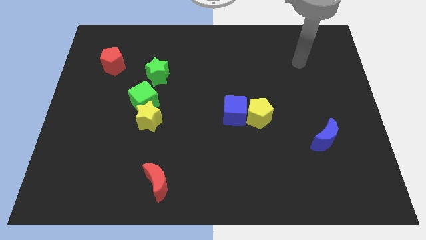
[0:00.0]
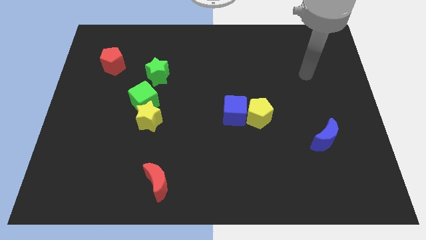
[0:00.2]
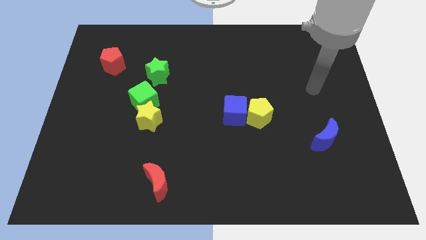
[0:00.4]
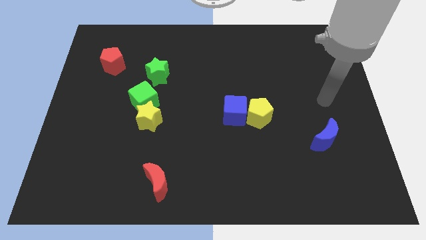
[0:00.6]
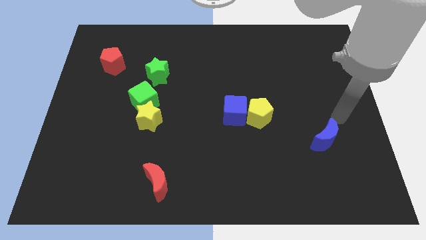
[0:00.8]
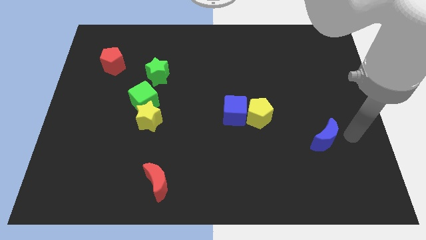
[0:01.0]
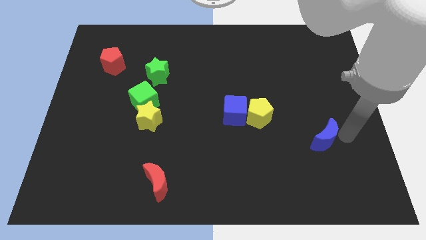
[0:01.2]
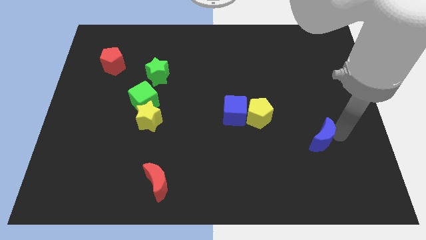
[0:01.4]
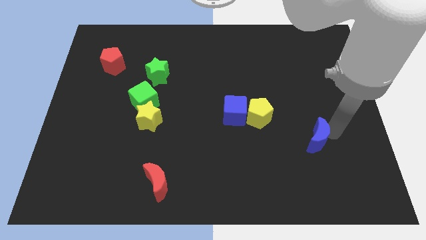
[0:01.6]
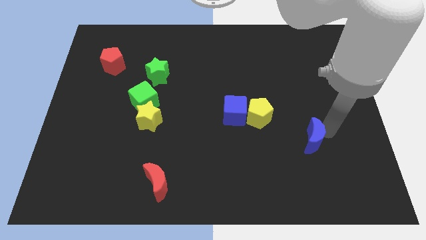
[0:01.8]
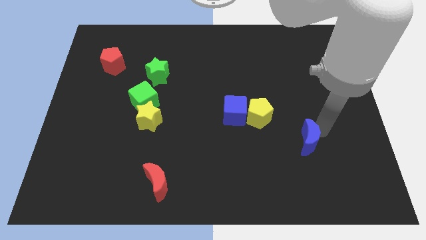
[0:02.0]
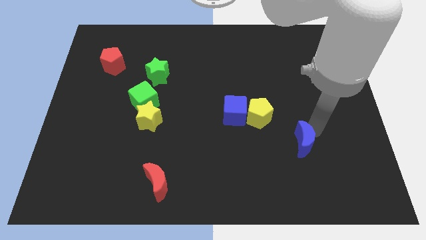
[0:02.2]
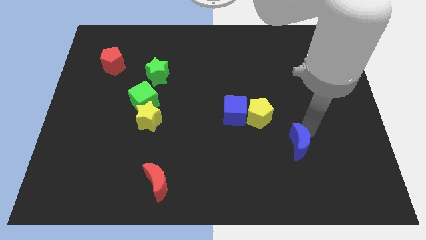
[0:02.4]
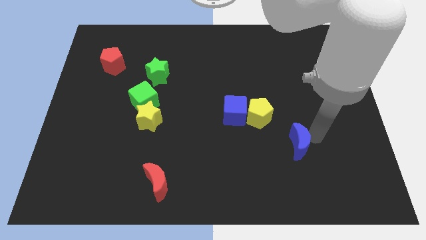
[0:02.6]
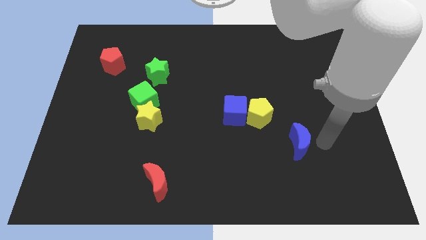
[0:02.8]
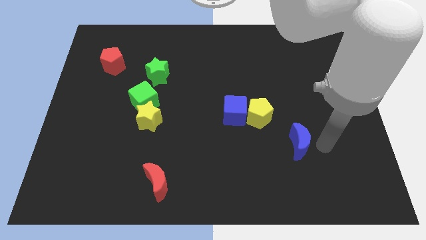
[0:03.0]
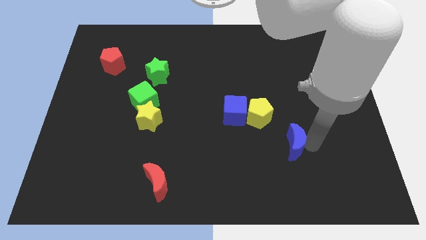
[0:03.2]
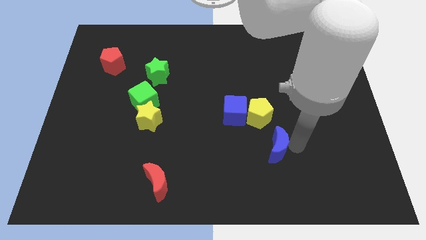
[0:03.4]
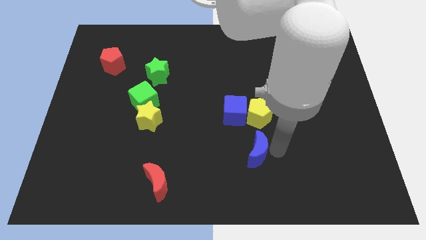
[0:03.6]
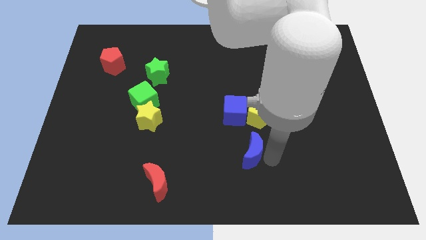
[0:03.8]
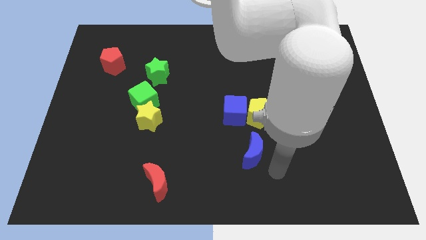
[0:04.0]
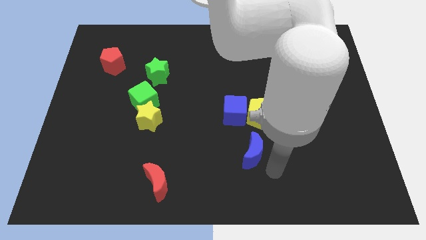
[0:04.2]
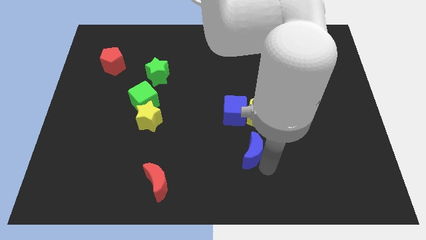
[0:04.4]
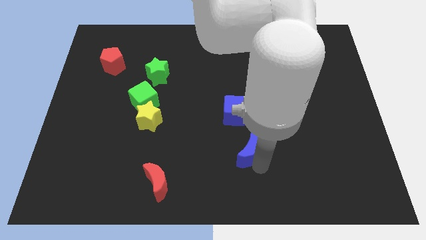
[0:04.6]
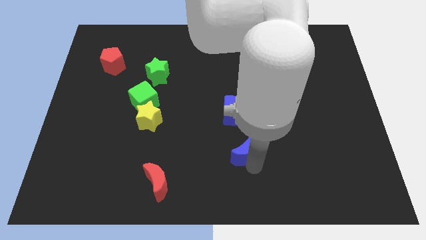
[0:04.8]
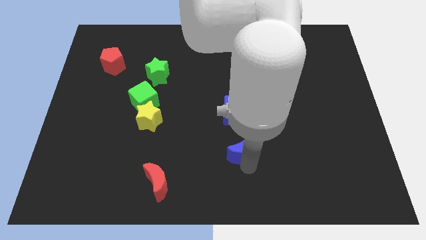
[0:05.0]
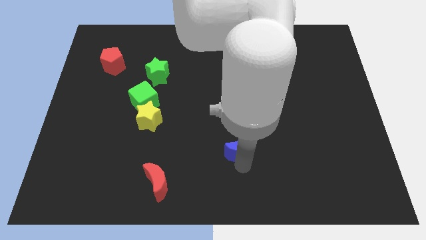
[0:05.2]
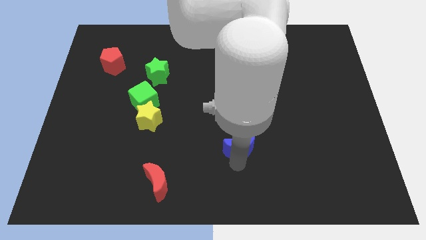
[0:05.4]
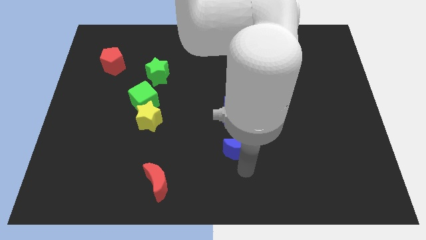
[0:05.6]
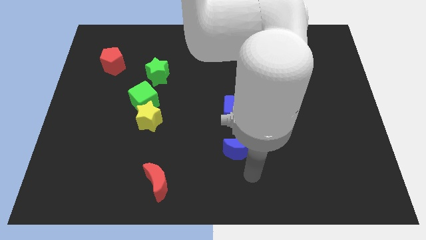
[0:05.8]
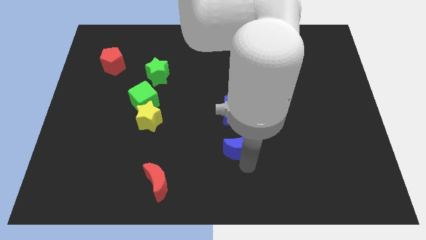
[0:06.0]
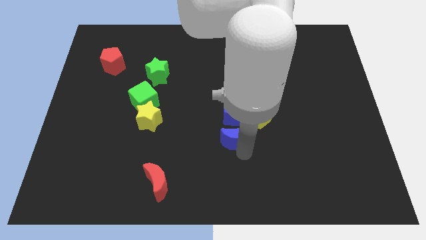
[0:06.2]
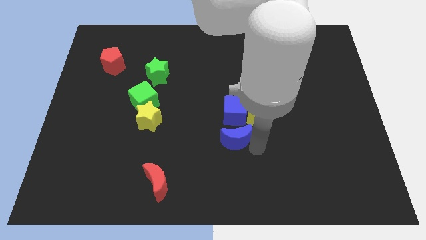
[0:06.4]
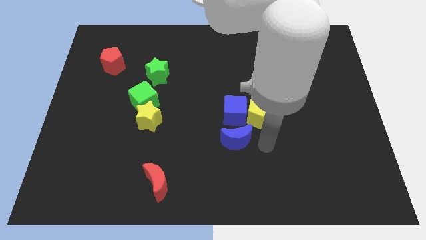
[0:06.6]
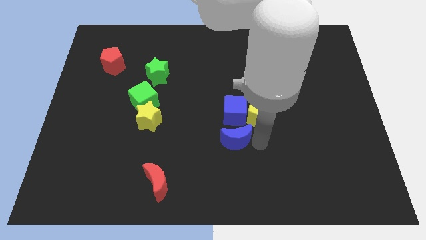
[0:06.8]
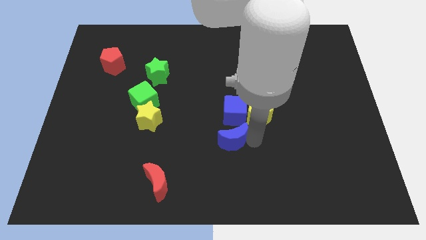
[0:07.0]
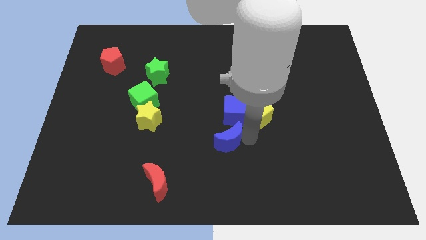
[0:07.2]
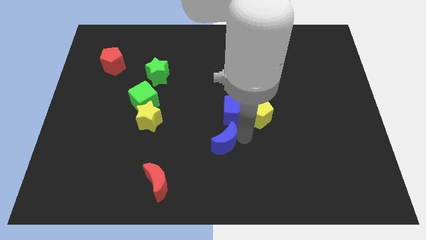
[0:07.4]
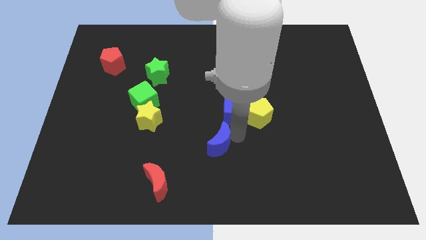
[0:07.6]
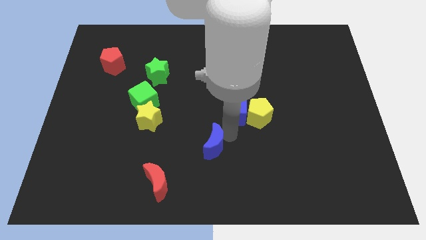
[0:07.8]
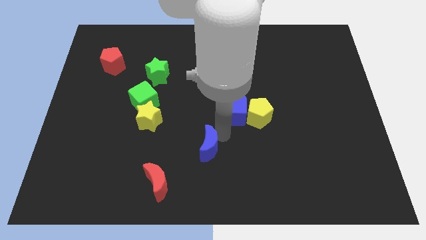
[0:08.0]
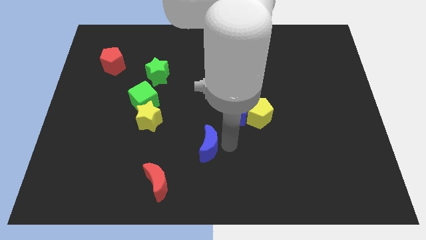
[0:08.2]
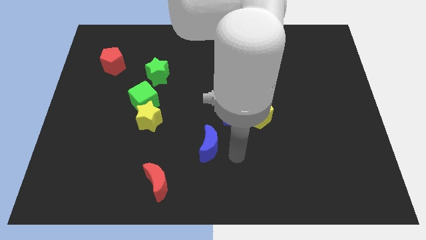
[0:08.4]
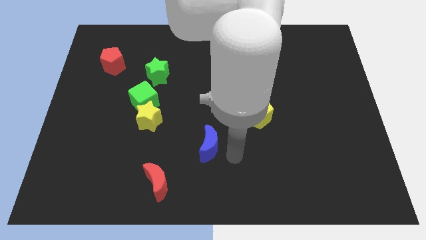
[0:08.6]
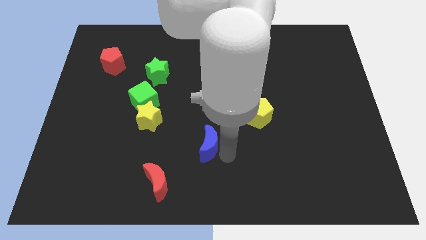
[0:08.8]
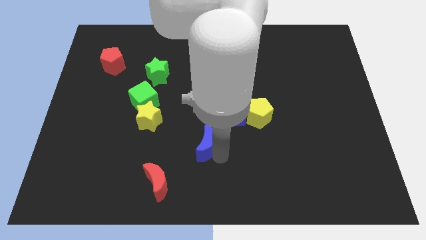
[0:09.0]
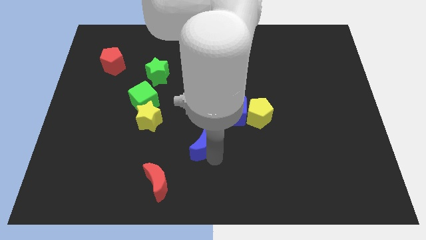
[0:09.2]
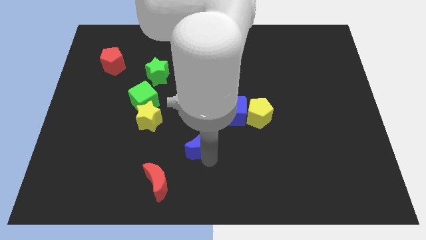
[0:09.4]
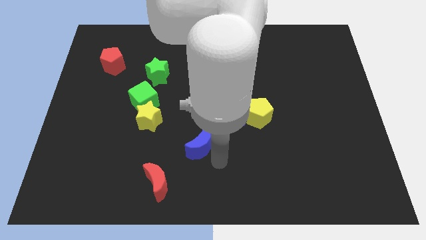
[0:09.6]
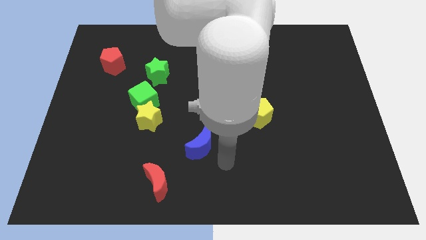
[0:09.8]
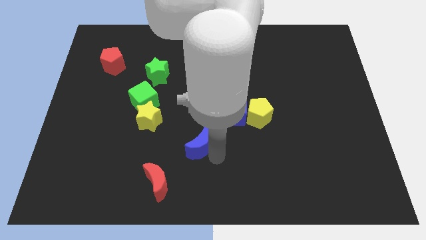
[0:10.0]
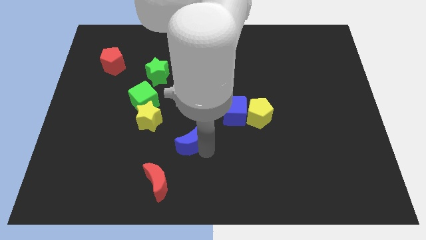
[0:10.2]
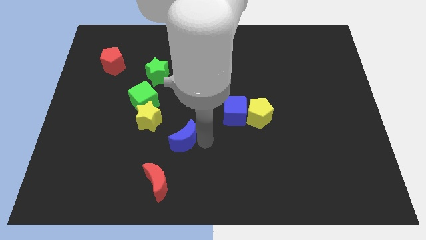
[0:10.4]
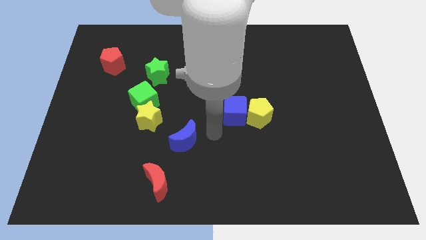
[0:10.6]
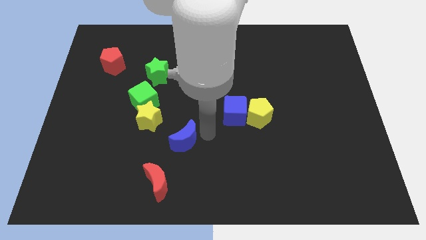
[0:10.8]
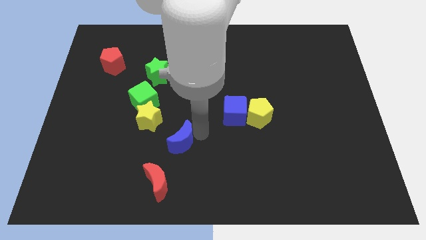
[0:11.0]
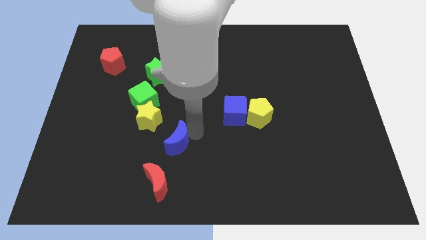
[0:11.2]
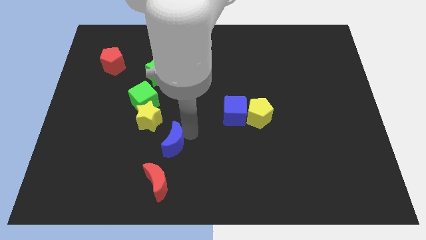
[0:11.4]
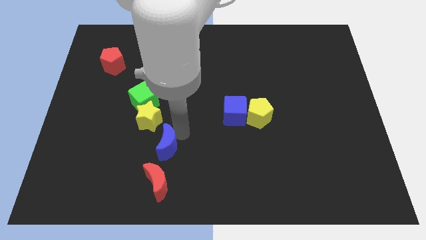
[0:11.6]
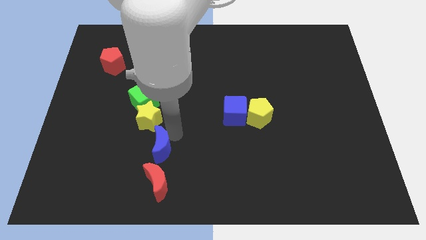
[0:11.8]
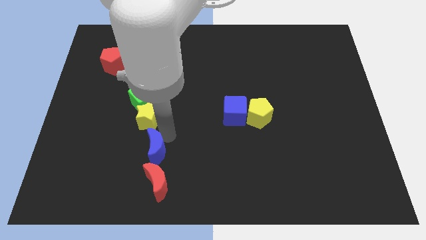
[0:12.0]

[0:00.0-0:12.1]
push the blue moon to the top left side of the red moon

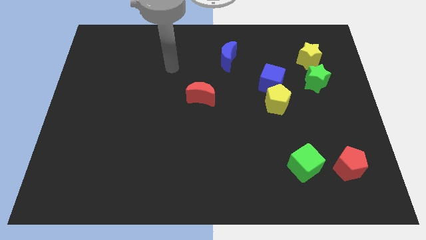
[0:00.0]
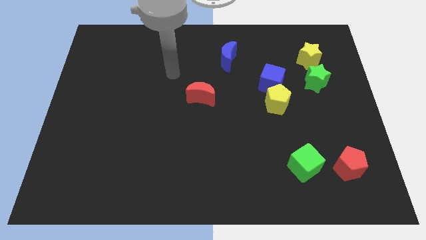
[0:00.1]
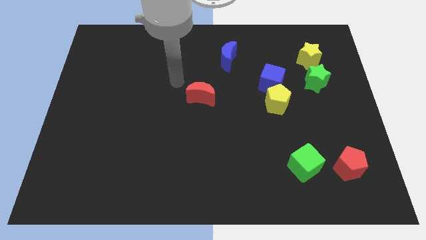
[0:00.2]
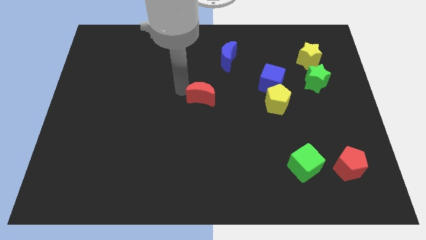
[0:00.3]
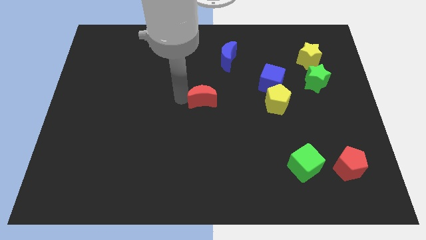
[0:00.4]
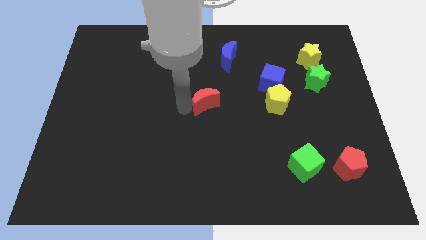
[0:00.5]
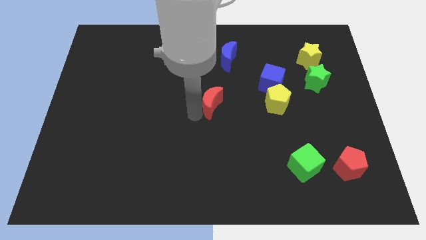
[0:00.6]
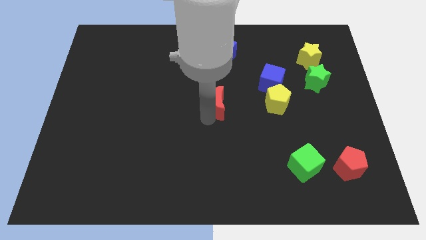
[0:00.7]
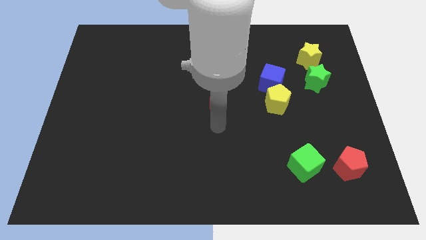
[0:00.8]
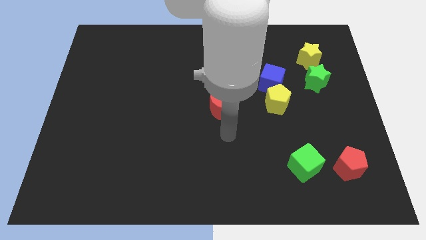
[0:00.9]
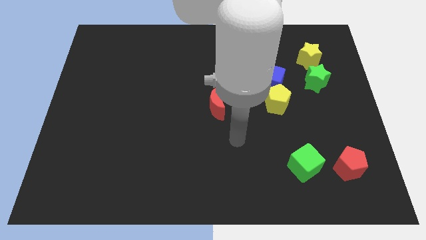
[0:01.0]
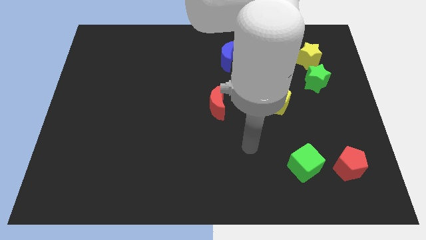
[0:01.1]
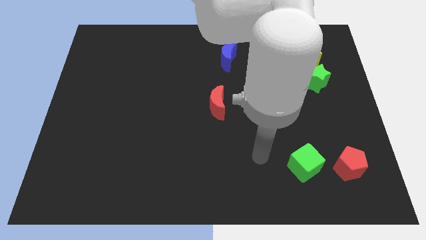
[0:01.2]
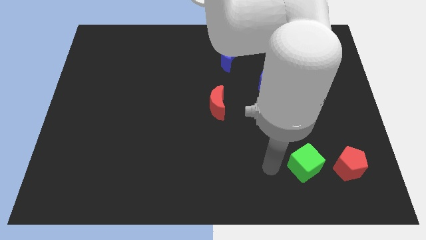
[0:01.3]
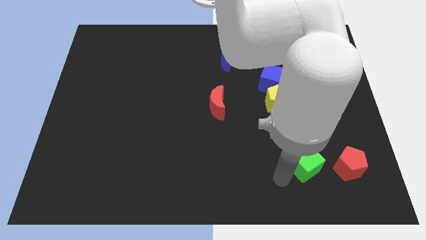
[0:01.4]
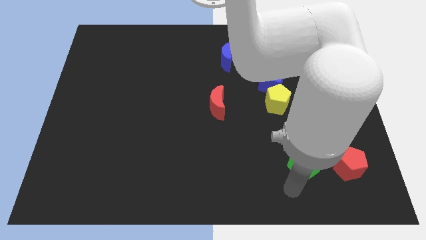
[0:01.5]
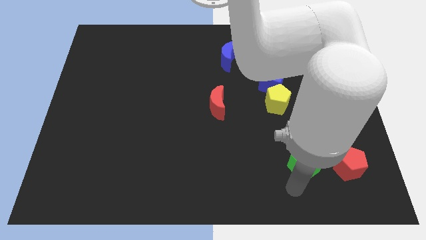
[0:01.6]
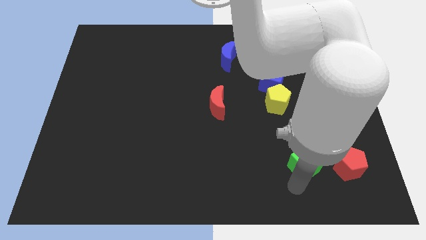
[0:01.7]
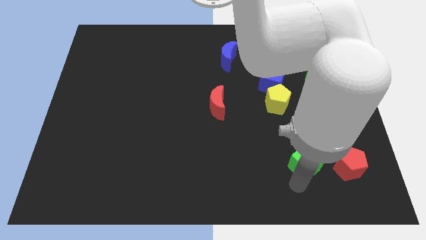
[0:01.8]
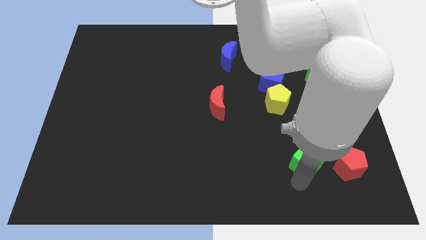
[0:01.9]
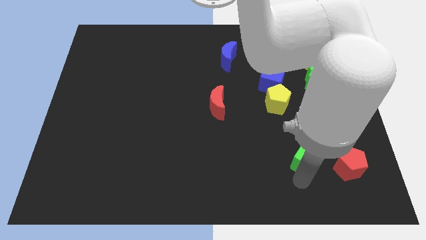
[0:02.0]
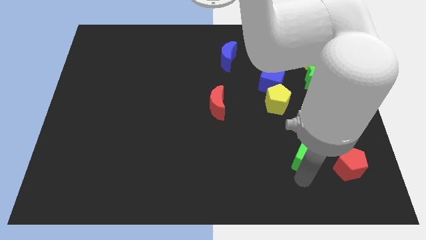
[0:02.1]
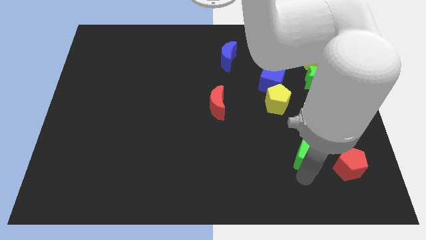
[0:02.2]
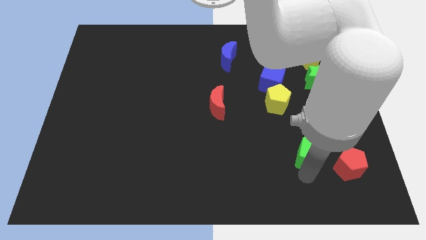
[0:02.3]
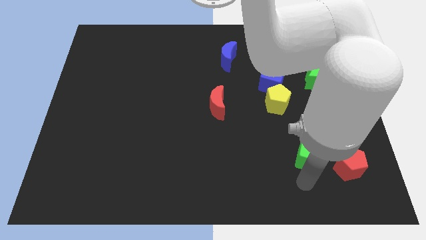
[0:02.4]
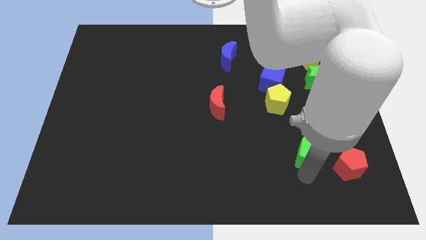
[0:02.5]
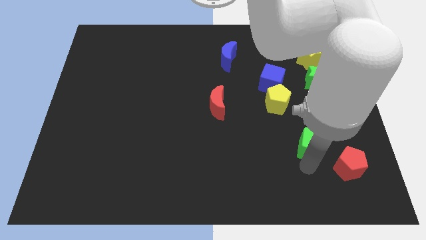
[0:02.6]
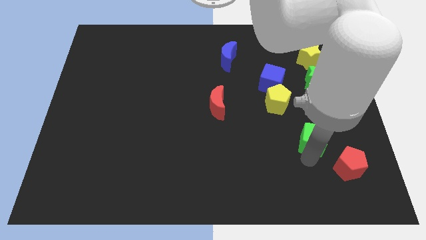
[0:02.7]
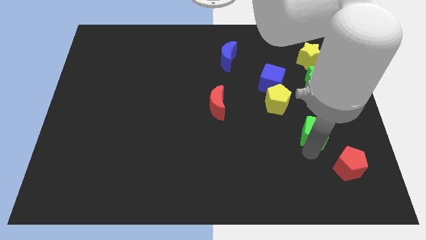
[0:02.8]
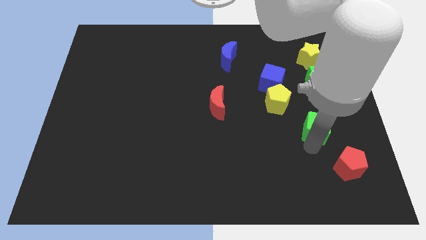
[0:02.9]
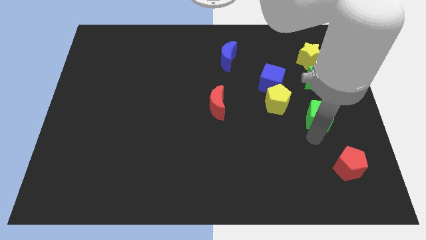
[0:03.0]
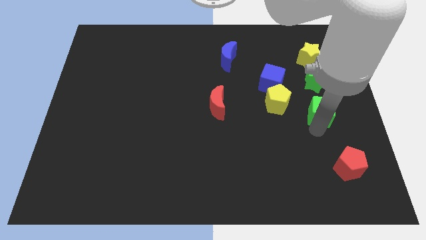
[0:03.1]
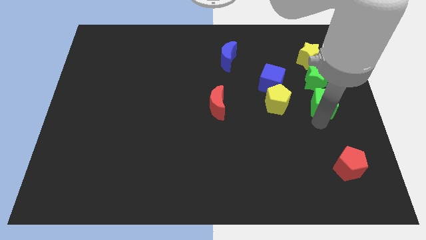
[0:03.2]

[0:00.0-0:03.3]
push the green cube to the bottom side of the yellow star
